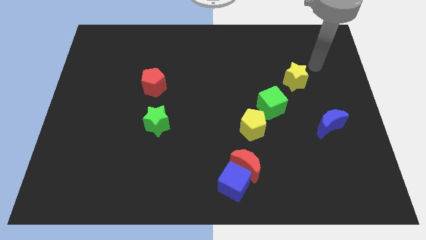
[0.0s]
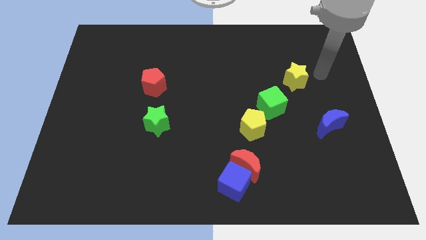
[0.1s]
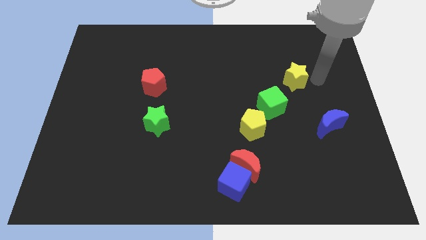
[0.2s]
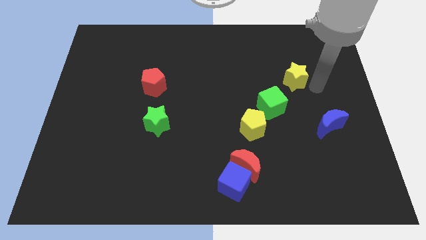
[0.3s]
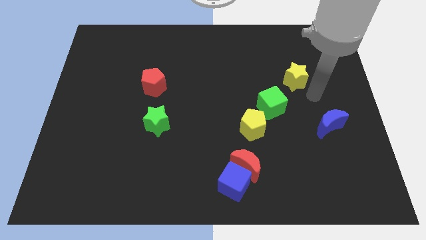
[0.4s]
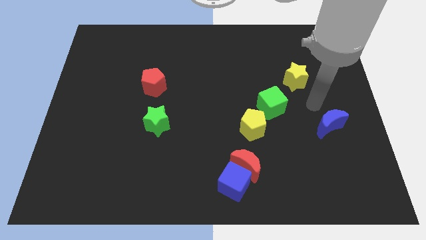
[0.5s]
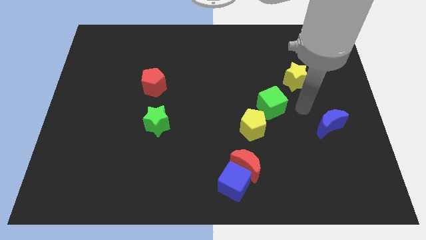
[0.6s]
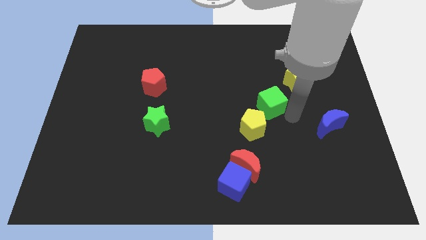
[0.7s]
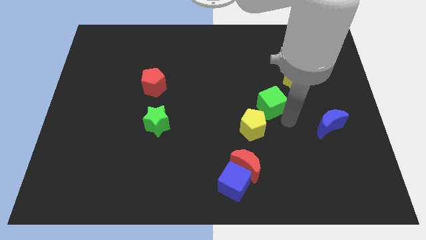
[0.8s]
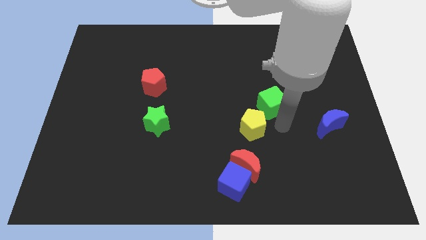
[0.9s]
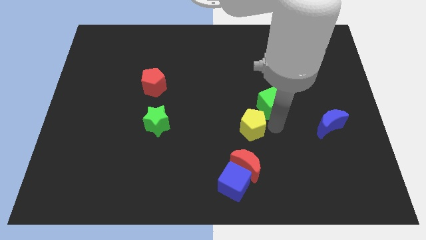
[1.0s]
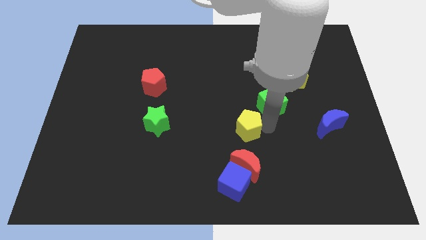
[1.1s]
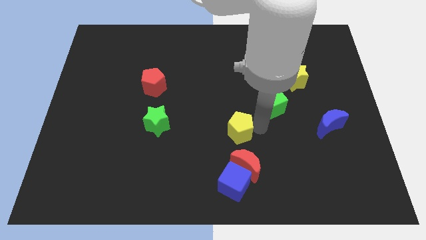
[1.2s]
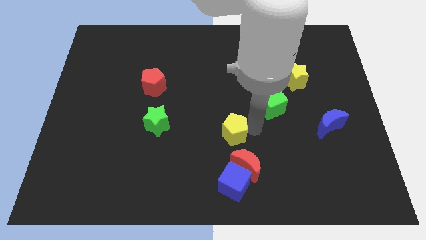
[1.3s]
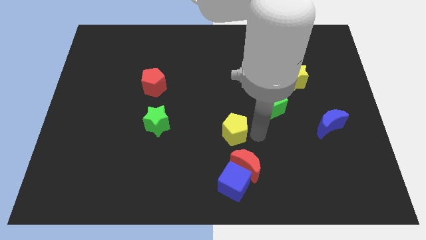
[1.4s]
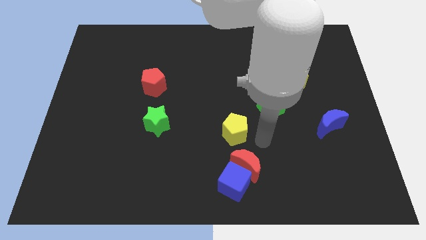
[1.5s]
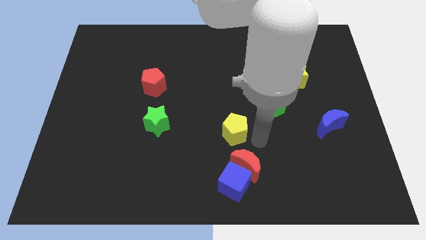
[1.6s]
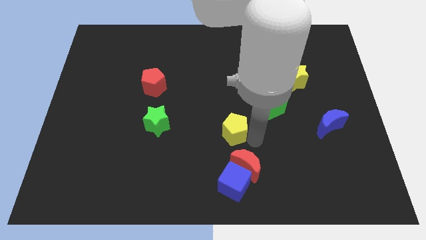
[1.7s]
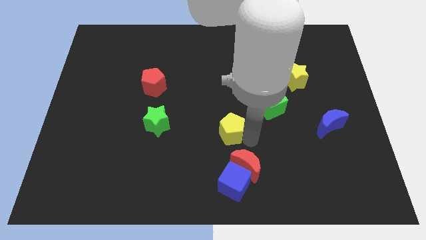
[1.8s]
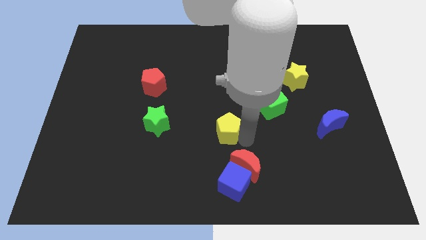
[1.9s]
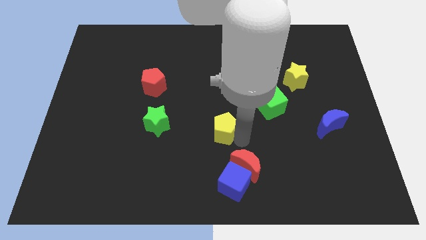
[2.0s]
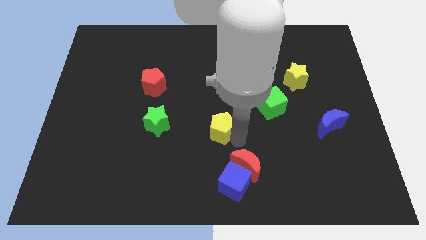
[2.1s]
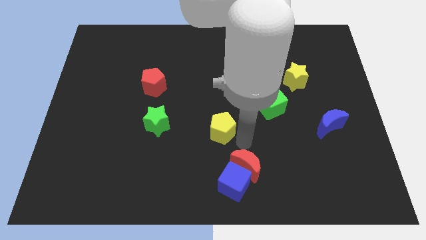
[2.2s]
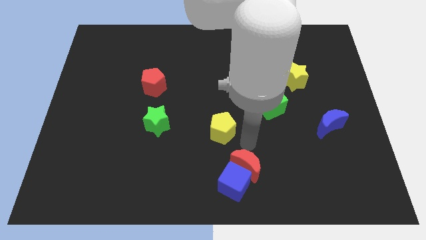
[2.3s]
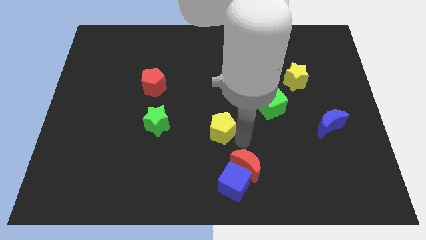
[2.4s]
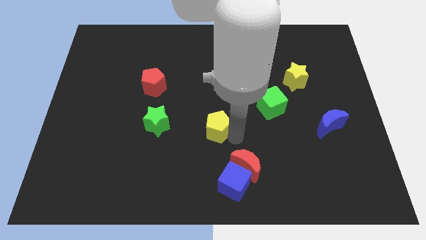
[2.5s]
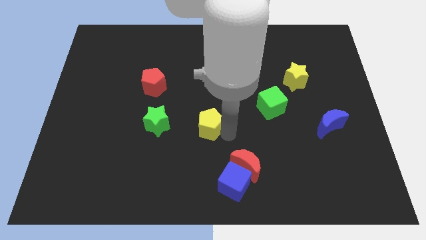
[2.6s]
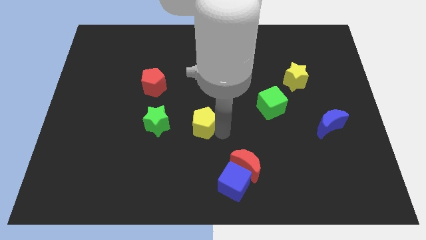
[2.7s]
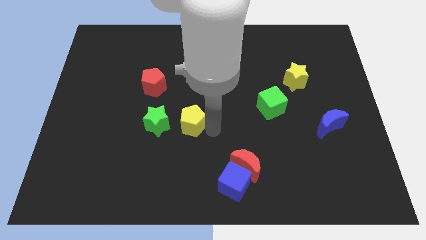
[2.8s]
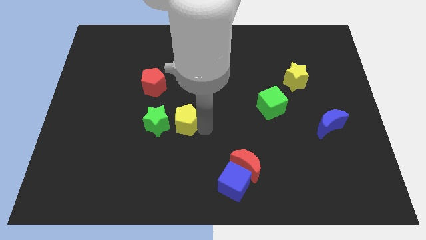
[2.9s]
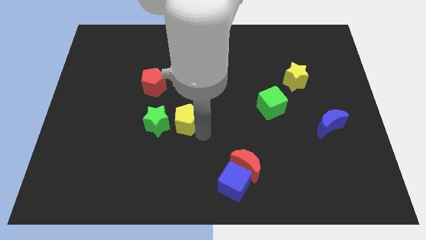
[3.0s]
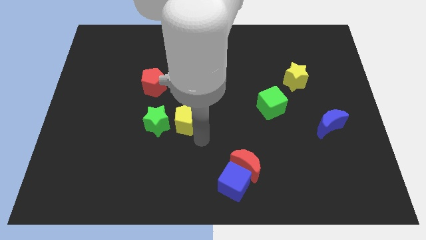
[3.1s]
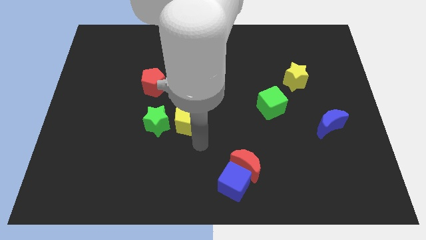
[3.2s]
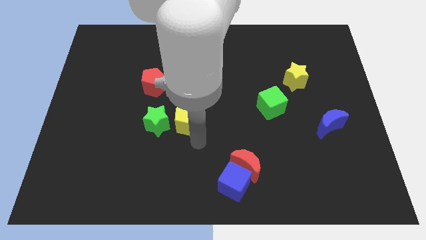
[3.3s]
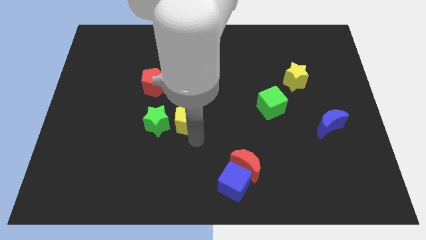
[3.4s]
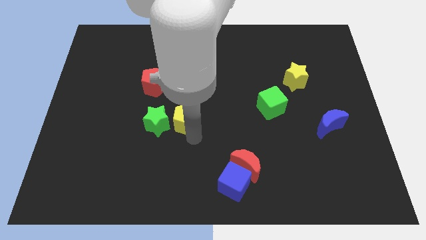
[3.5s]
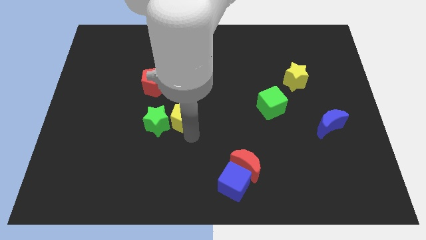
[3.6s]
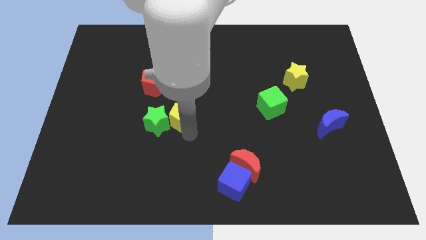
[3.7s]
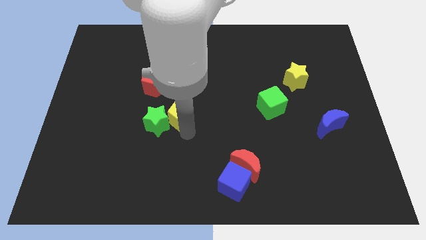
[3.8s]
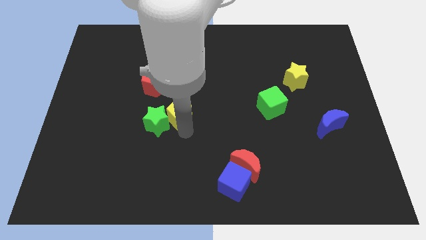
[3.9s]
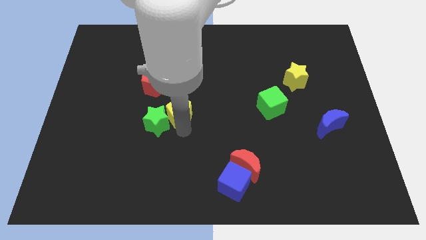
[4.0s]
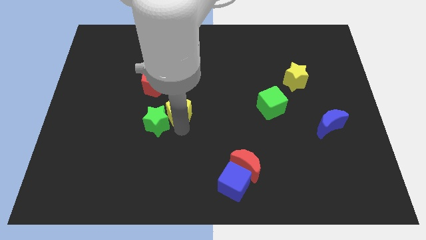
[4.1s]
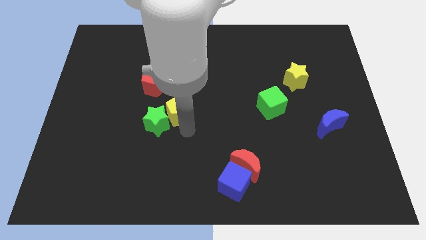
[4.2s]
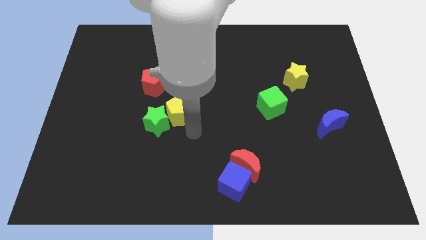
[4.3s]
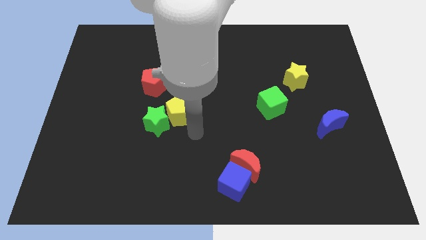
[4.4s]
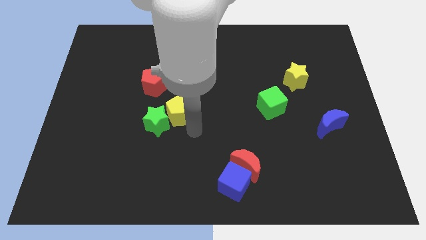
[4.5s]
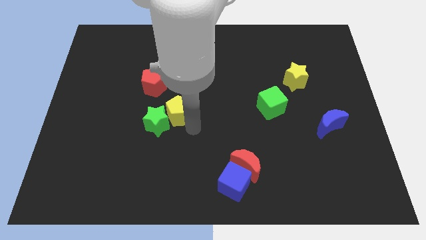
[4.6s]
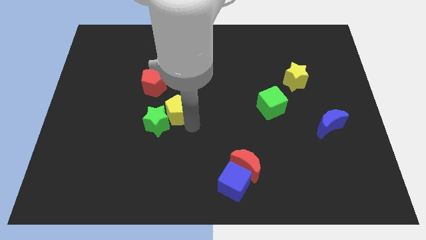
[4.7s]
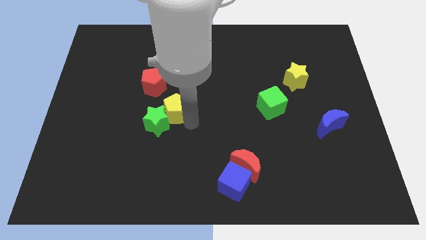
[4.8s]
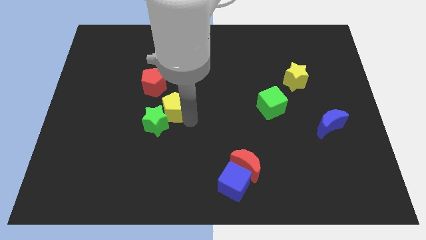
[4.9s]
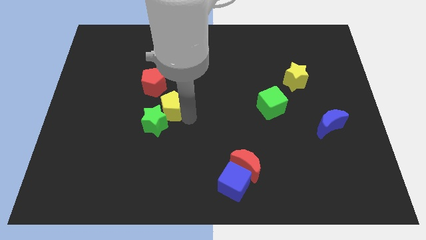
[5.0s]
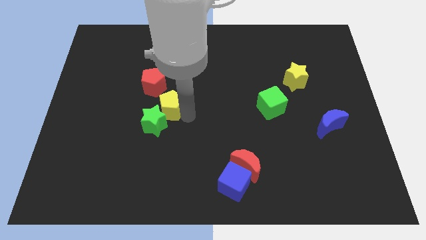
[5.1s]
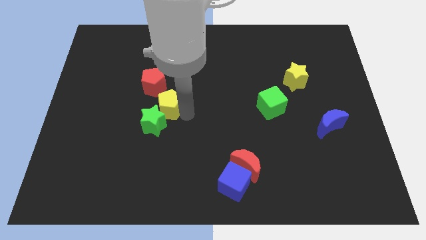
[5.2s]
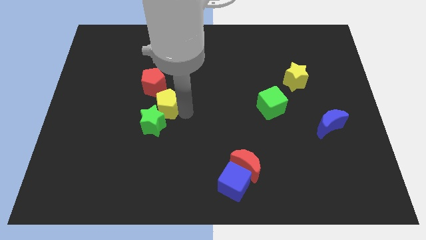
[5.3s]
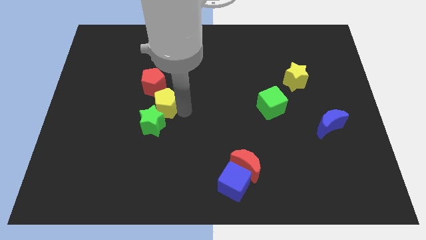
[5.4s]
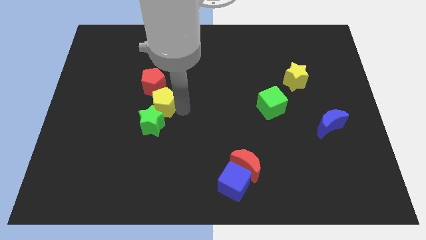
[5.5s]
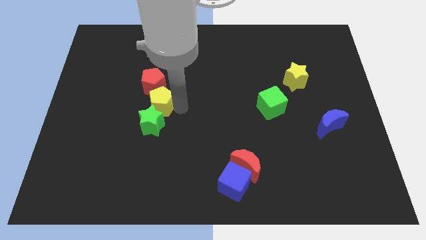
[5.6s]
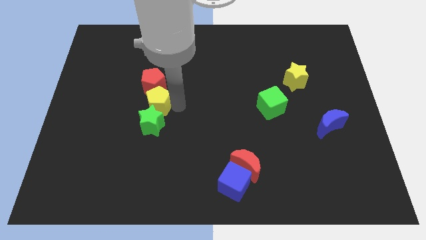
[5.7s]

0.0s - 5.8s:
slide the yellow pentagon to the red pentagon

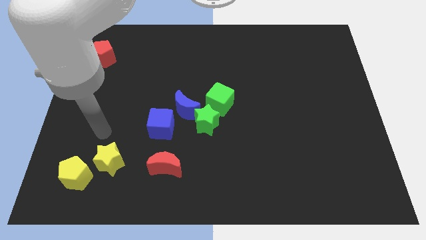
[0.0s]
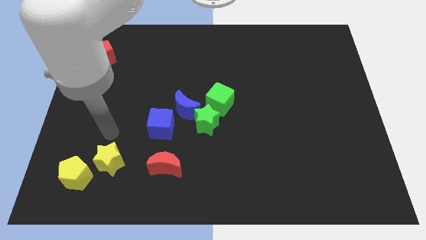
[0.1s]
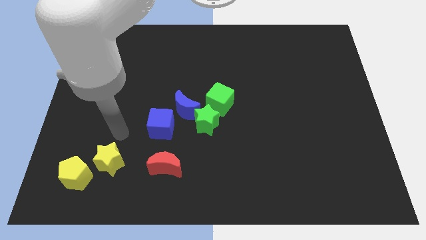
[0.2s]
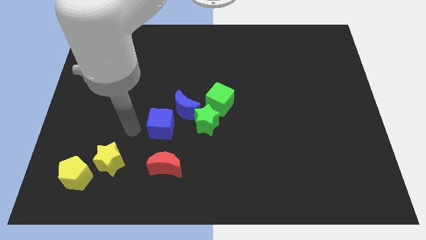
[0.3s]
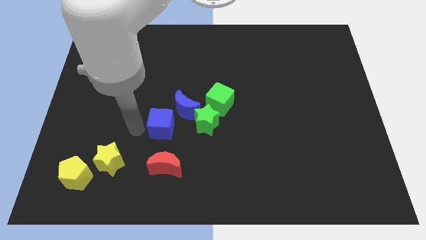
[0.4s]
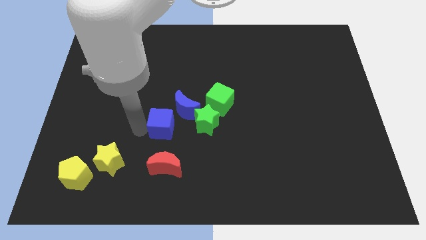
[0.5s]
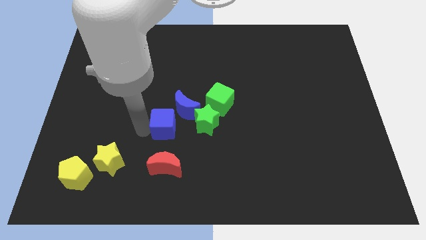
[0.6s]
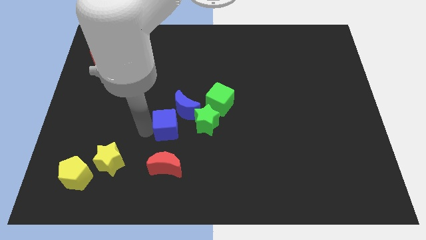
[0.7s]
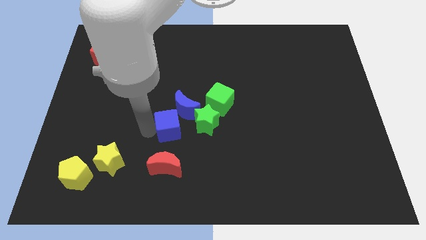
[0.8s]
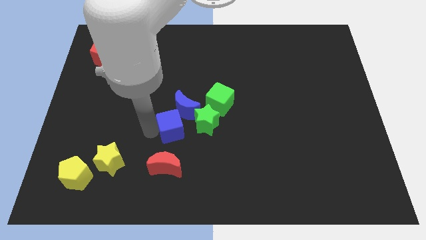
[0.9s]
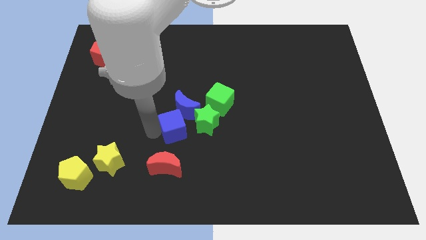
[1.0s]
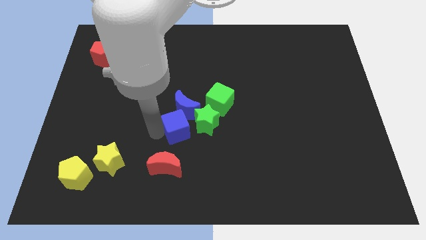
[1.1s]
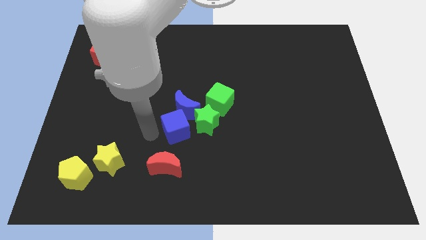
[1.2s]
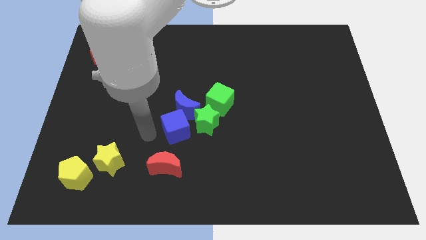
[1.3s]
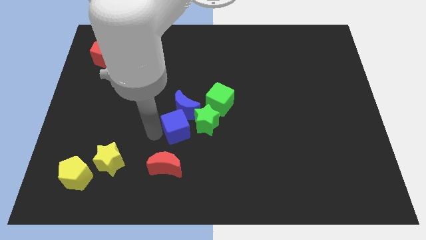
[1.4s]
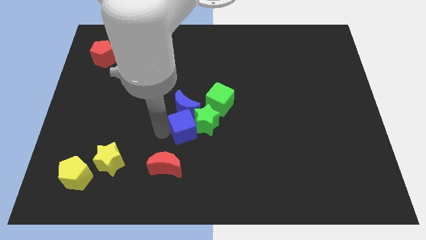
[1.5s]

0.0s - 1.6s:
slide the blue cube to the green star
